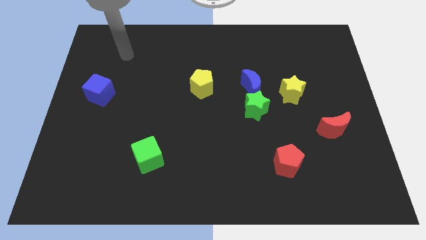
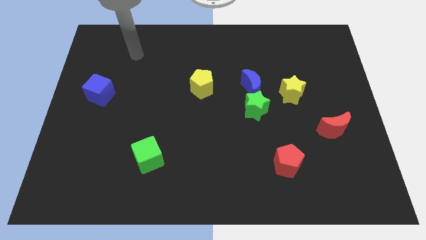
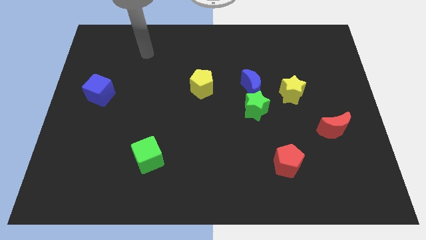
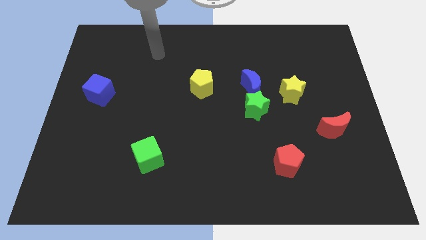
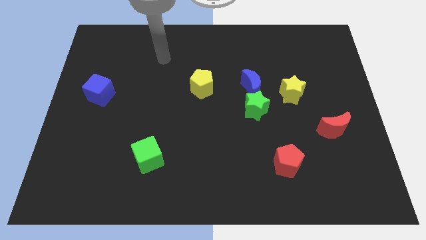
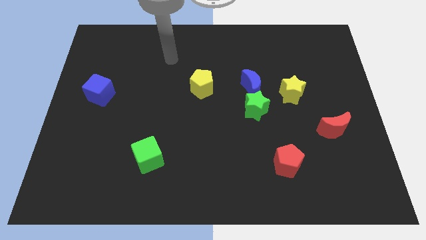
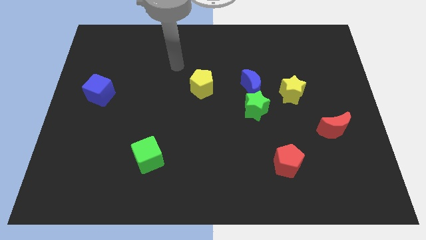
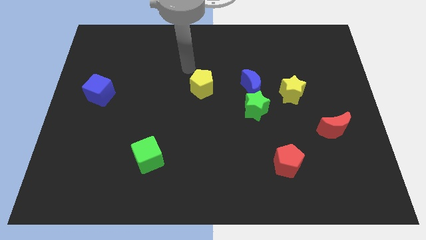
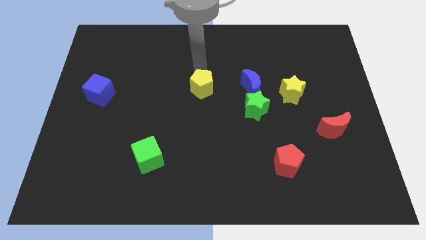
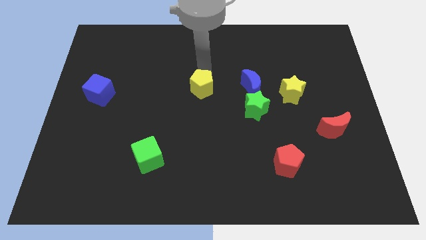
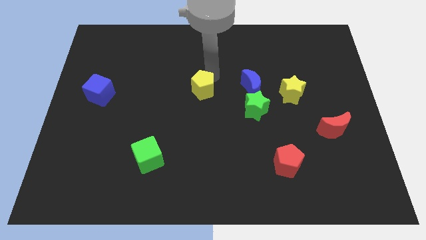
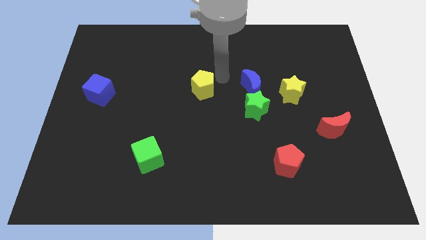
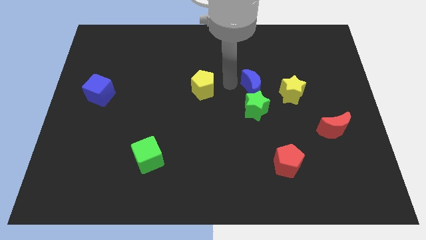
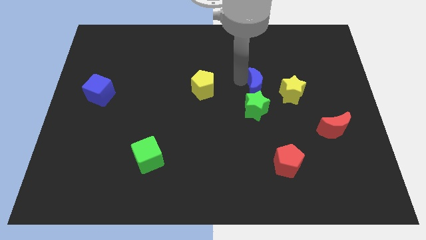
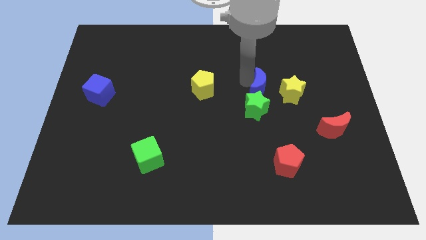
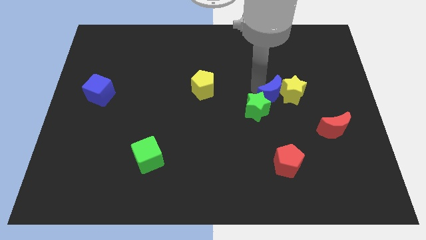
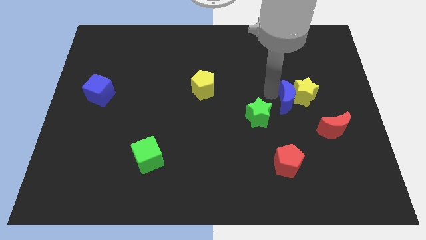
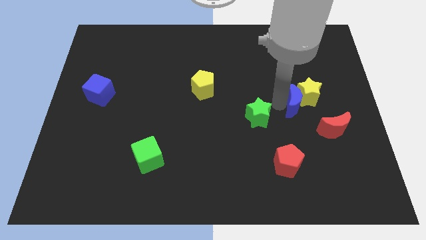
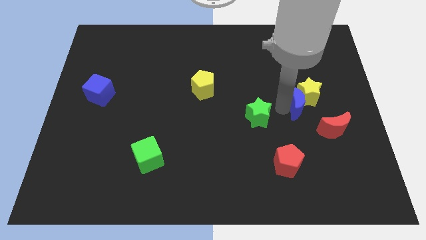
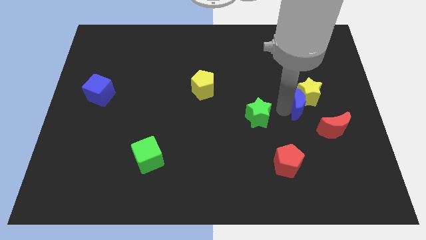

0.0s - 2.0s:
pull the green star apart from the blue moon

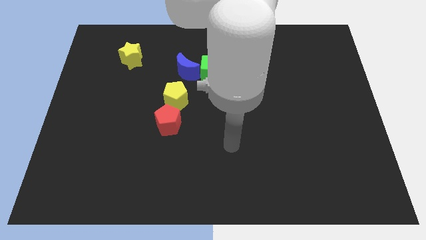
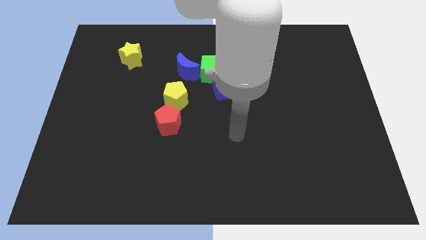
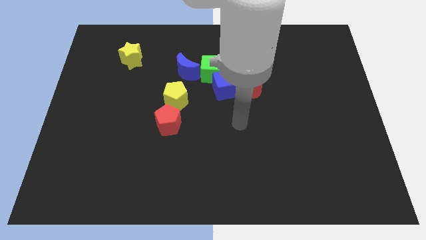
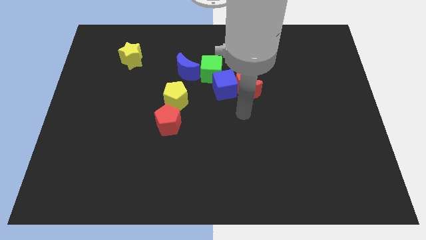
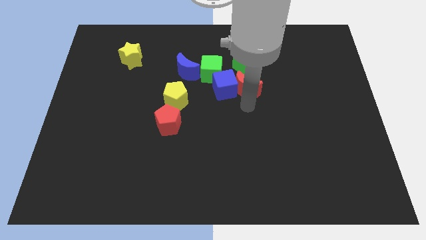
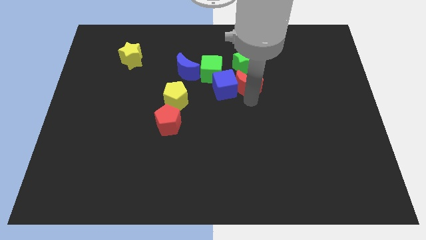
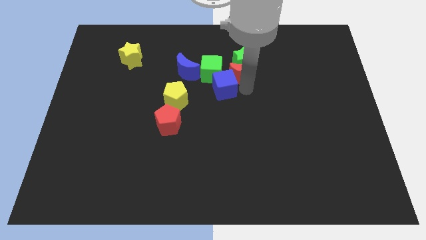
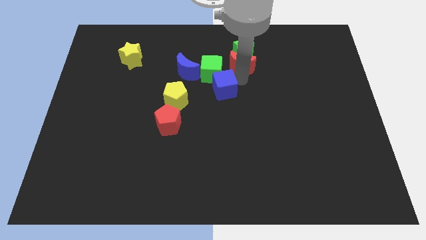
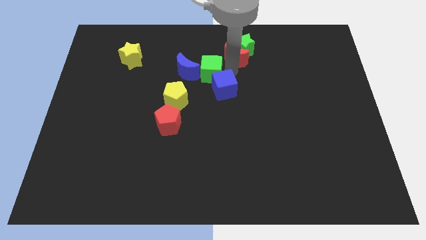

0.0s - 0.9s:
move the blue cube away from the clump

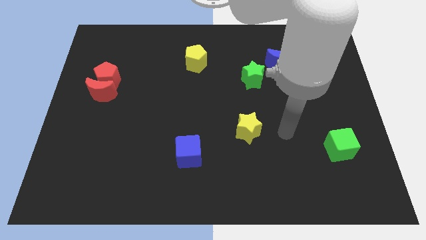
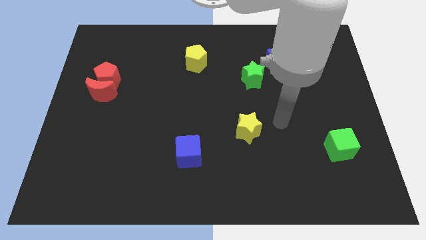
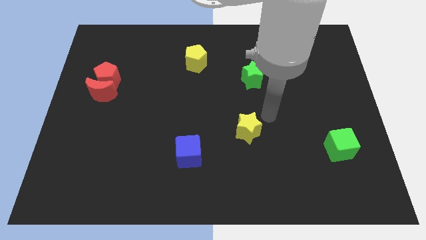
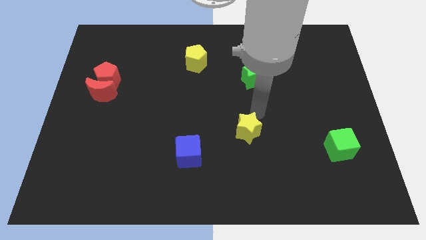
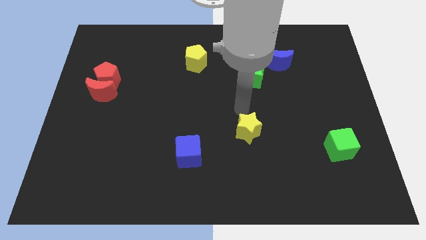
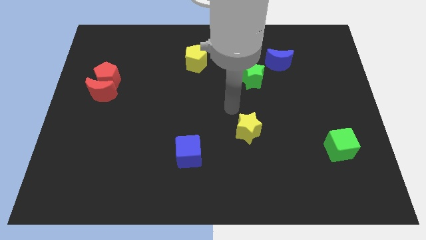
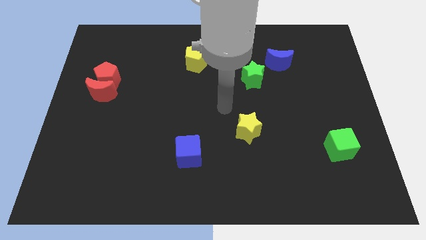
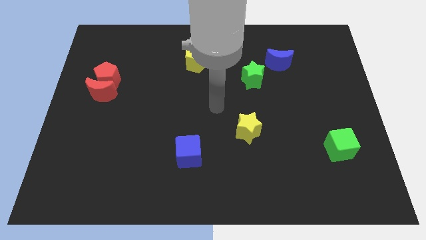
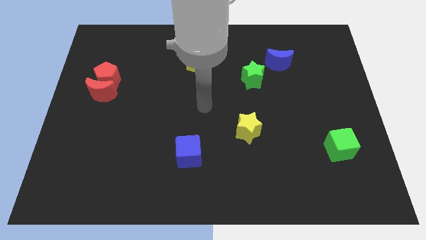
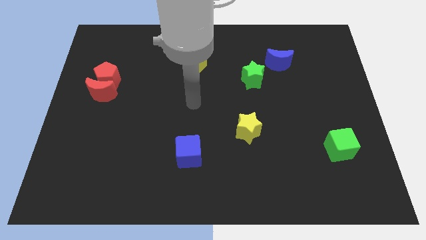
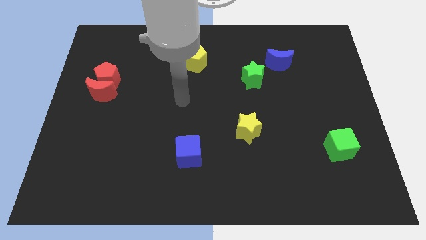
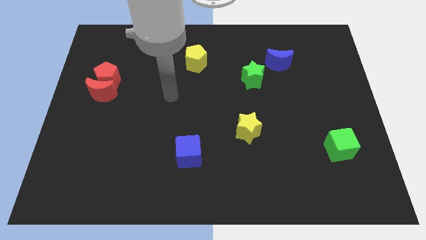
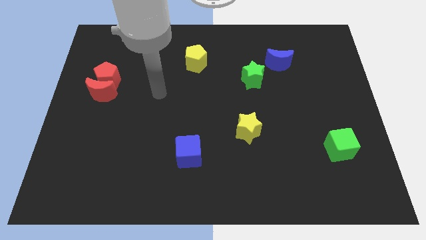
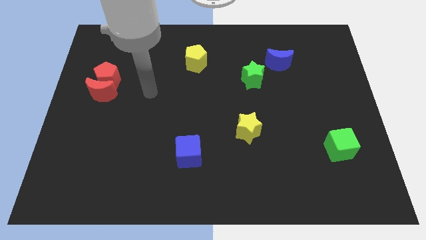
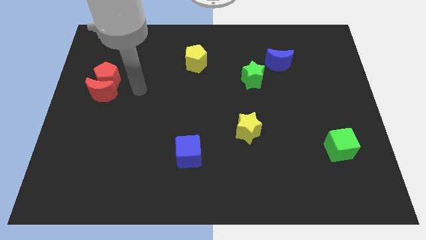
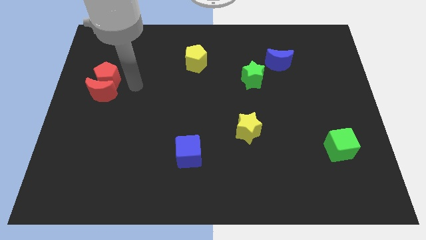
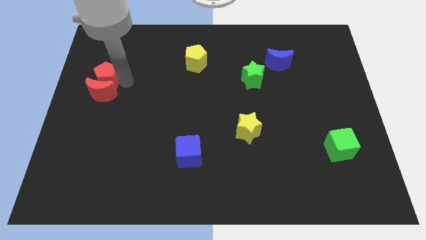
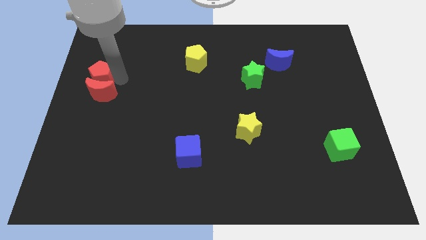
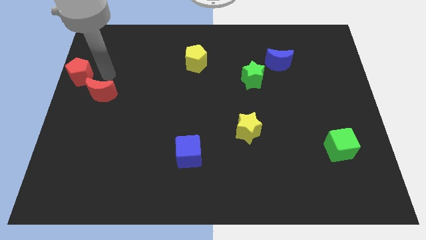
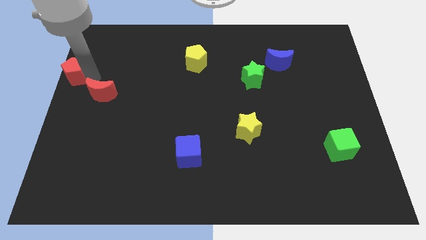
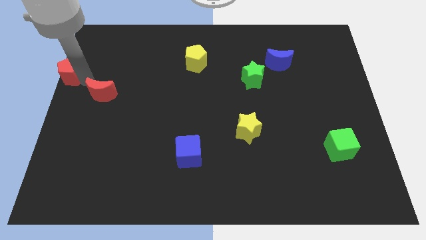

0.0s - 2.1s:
move the red moon away from the red pentagon

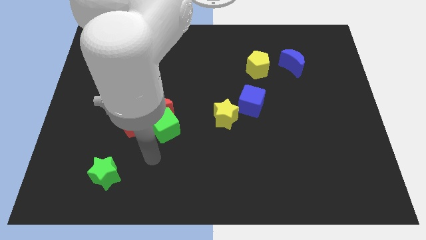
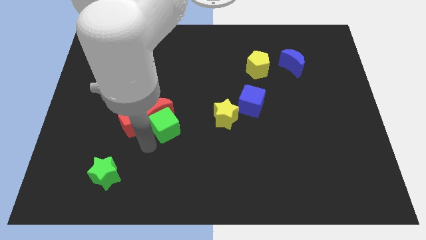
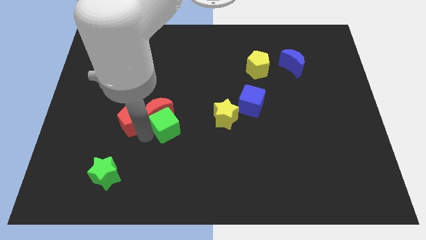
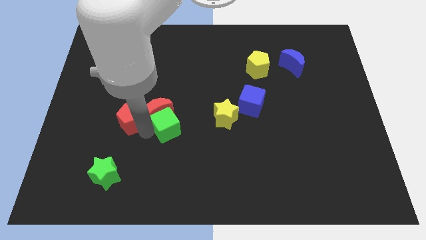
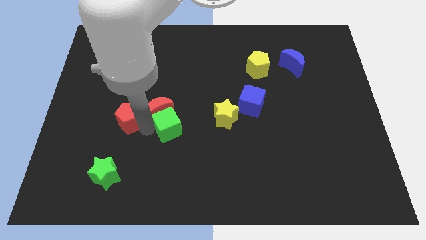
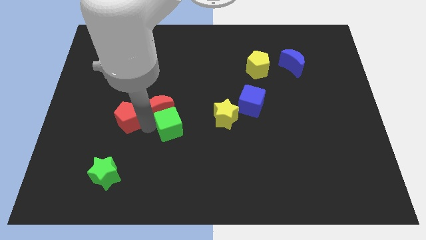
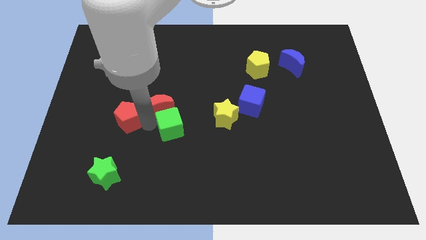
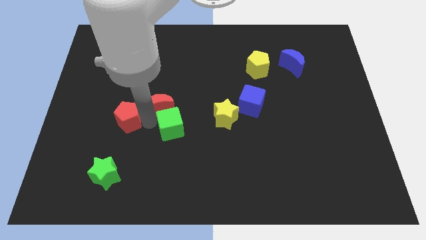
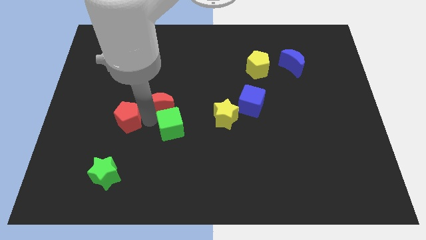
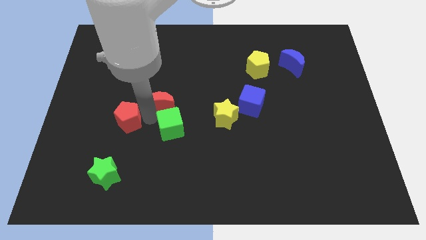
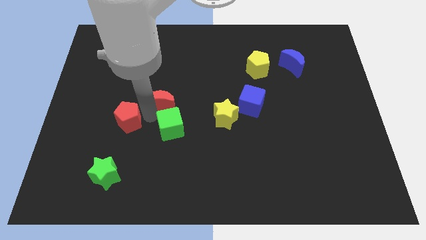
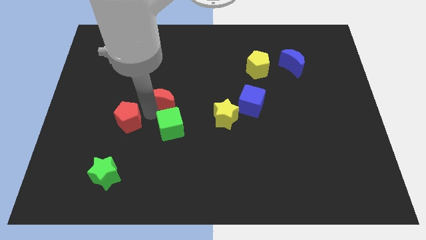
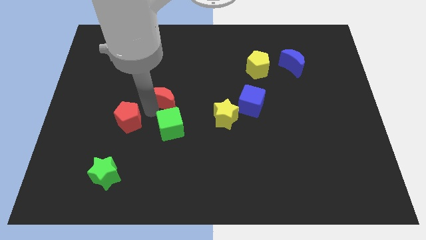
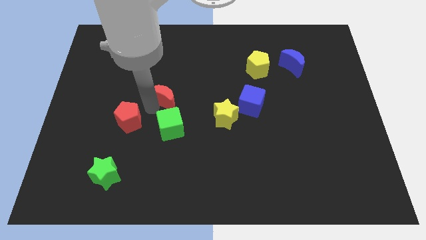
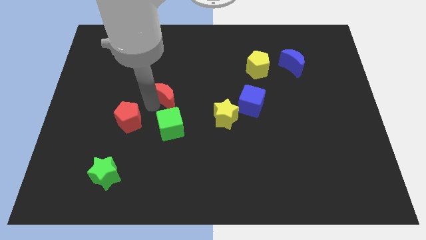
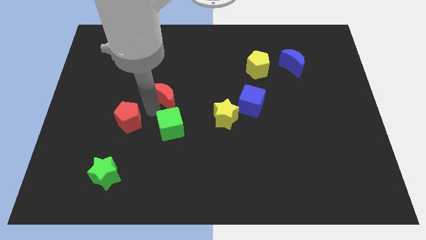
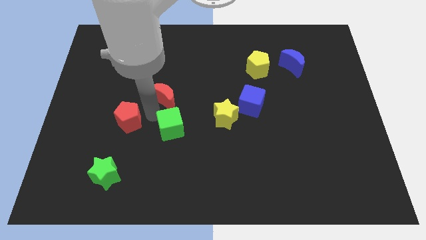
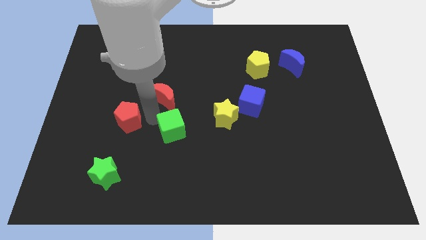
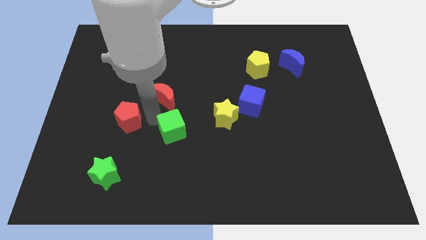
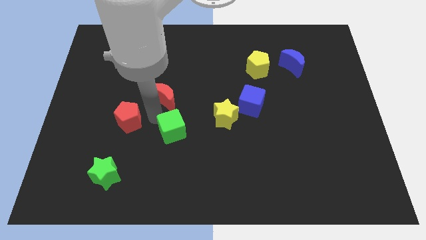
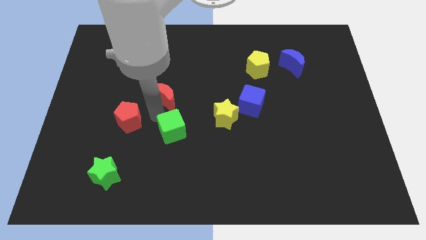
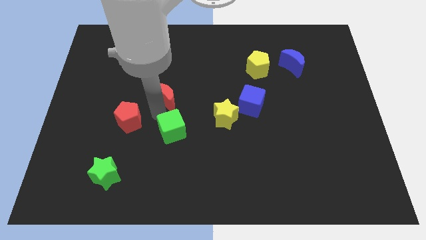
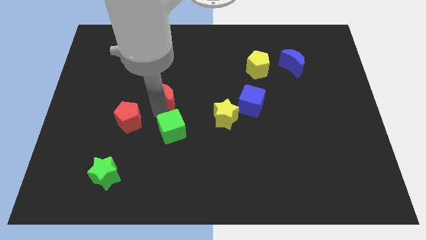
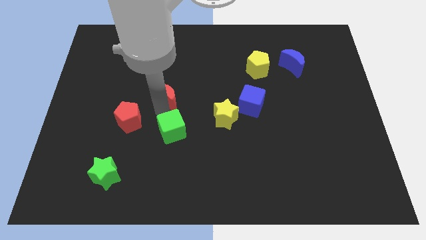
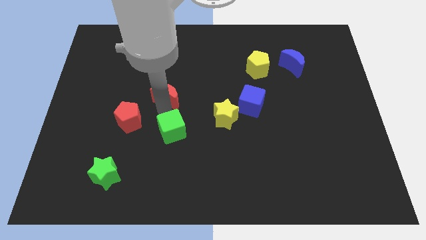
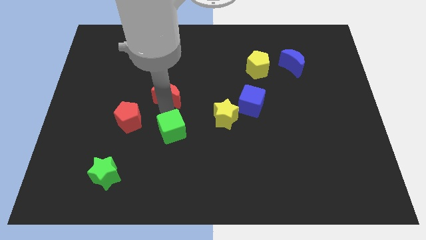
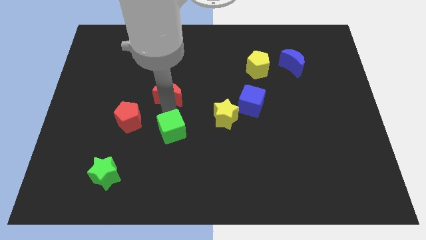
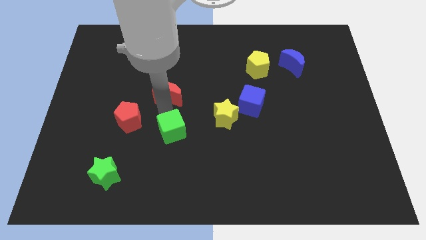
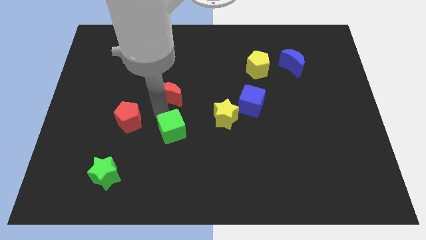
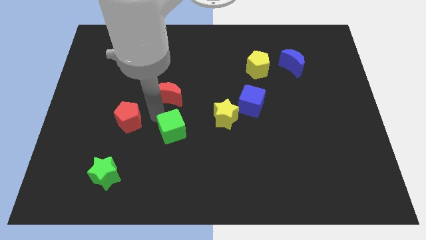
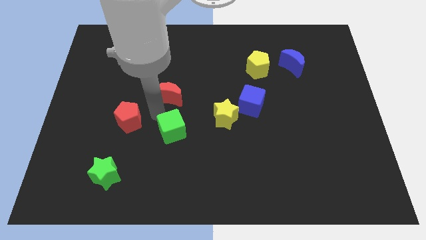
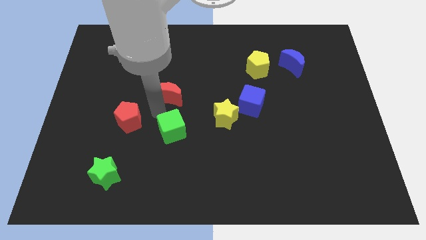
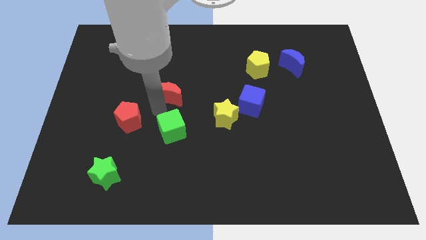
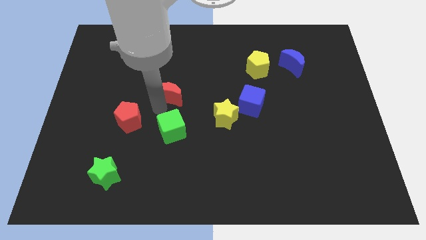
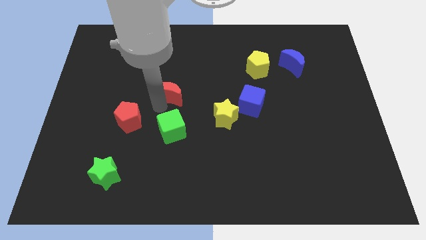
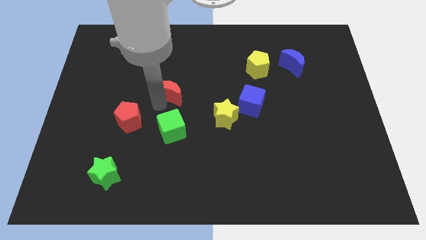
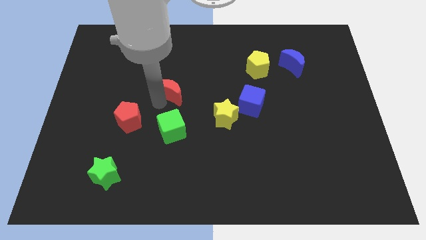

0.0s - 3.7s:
move the red moon away from the green cube and red pentagon

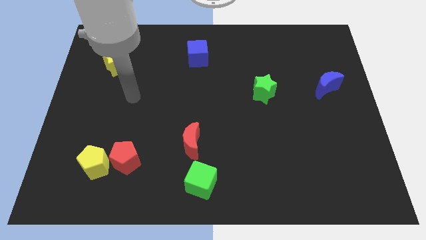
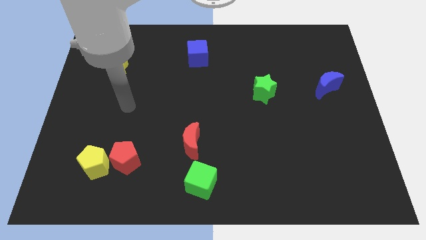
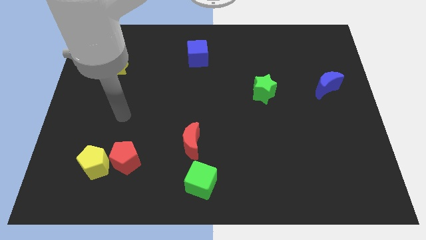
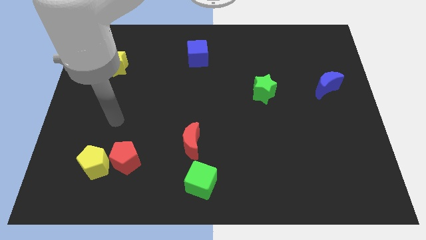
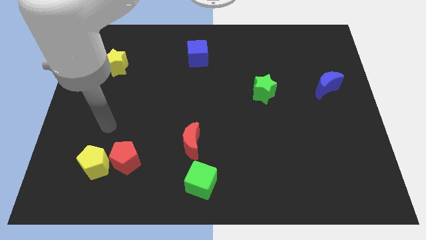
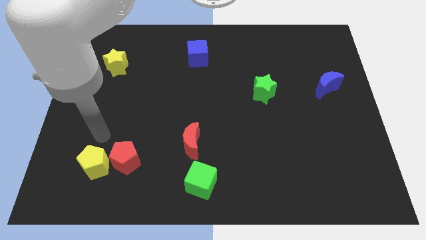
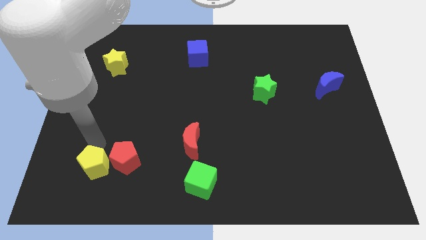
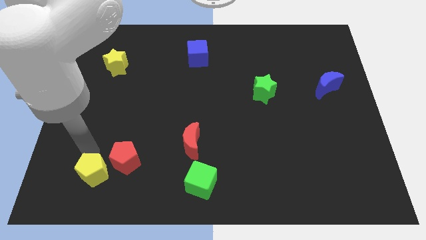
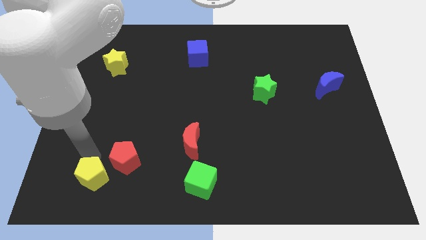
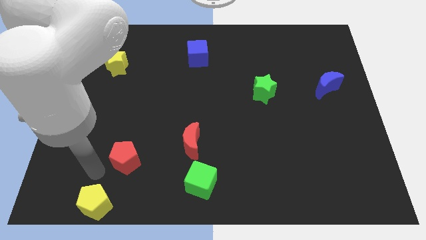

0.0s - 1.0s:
move the red pentagon away from the yellow pentagon
